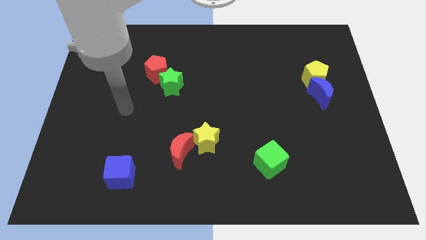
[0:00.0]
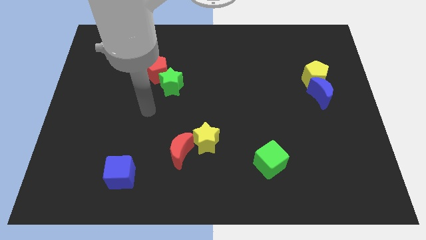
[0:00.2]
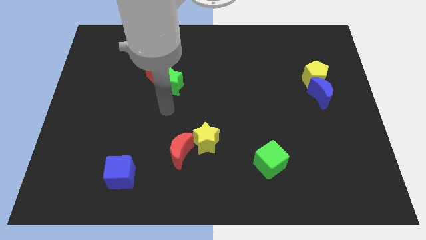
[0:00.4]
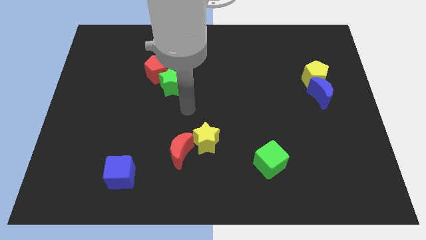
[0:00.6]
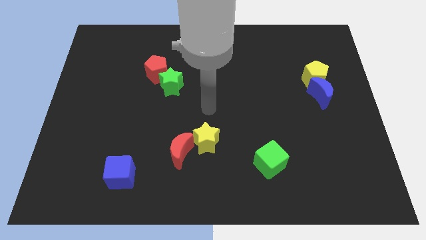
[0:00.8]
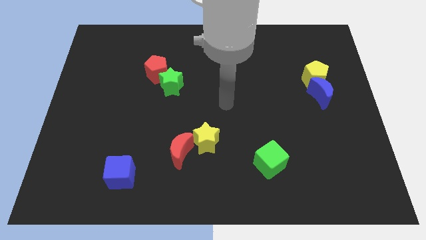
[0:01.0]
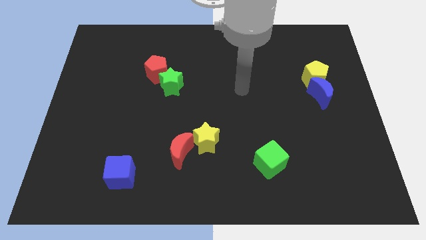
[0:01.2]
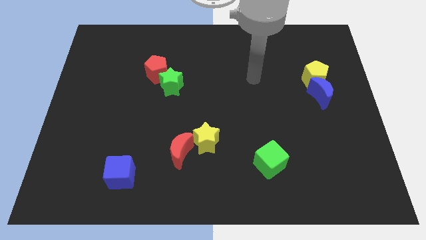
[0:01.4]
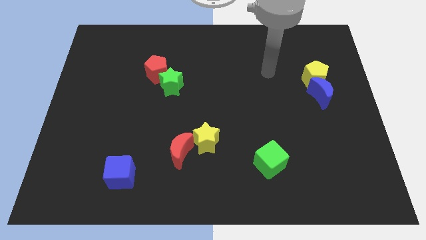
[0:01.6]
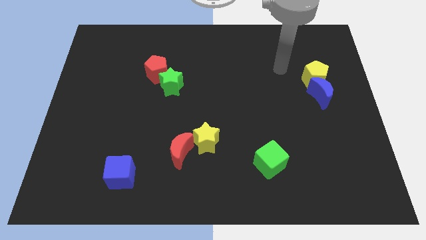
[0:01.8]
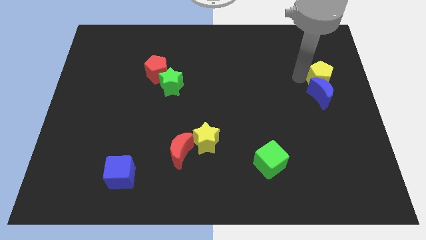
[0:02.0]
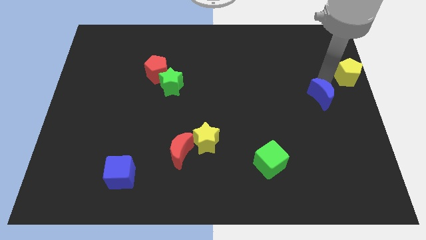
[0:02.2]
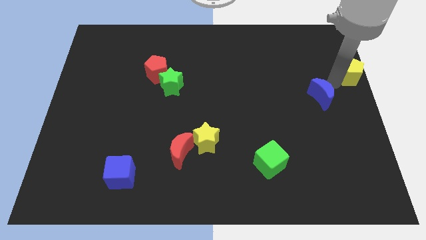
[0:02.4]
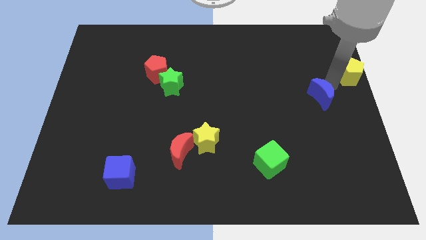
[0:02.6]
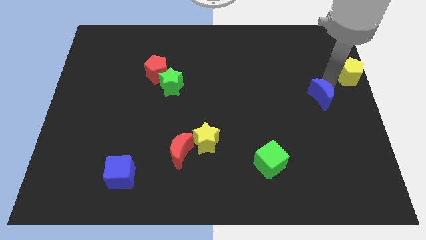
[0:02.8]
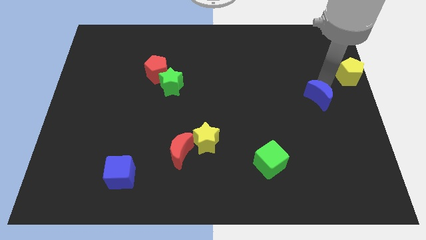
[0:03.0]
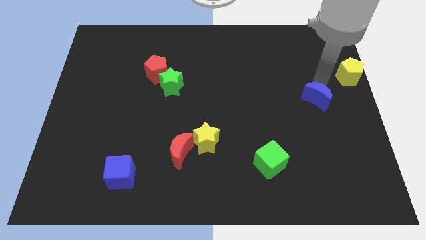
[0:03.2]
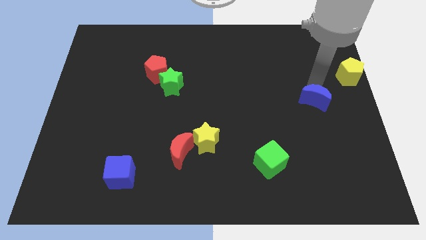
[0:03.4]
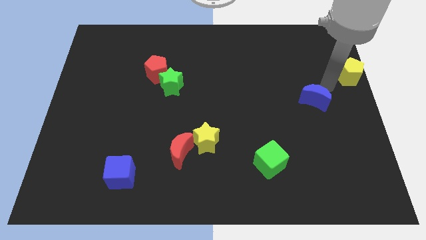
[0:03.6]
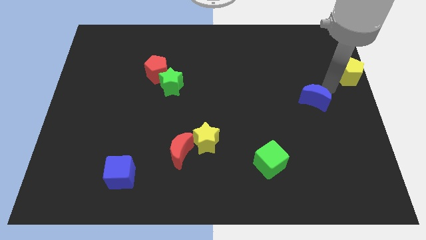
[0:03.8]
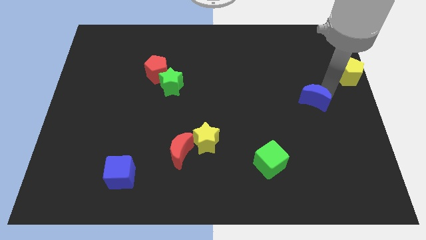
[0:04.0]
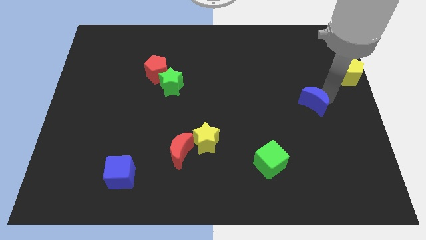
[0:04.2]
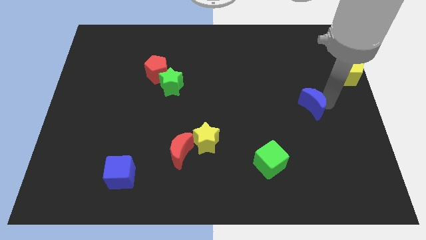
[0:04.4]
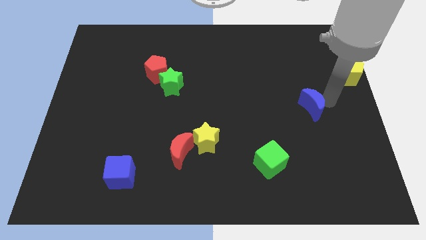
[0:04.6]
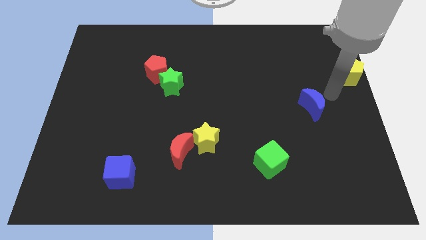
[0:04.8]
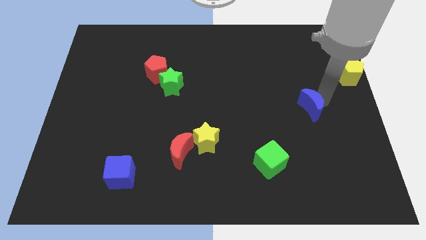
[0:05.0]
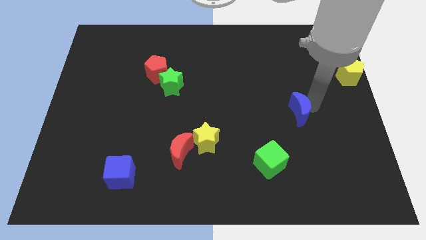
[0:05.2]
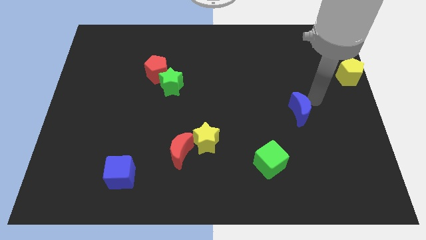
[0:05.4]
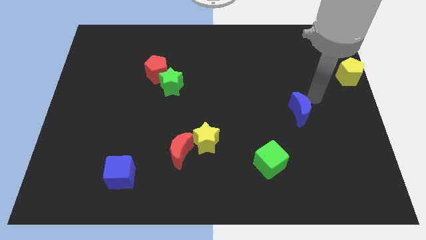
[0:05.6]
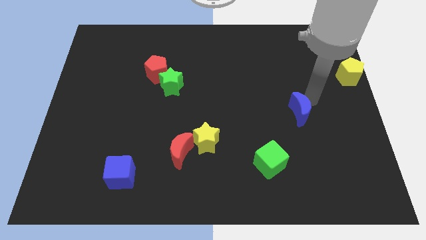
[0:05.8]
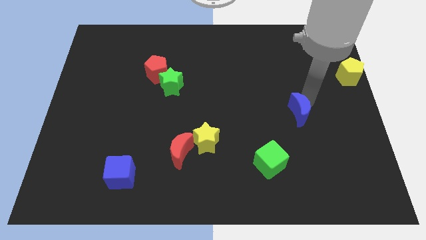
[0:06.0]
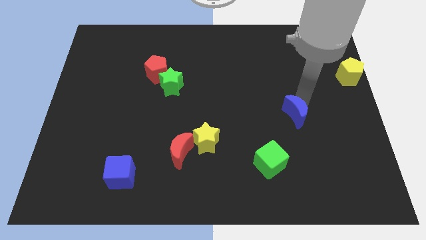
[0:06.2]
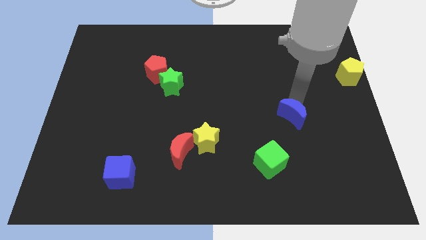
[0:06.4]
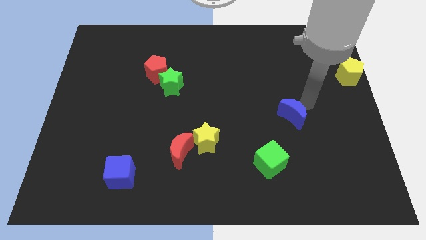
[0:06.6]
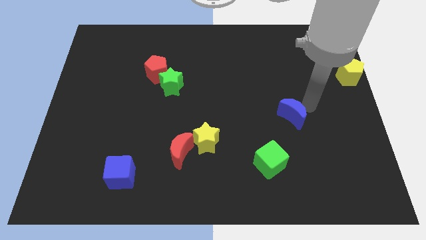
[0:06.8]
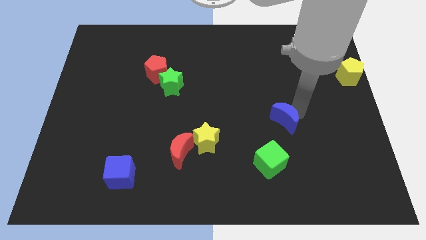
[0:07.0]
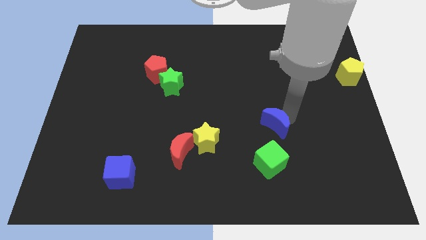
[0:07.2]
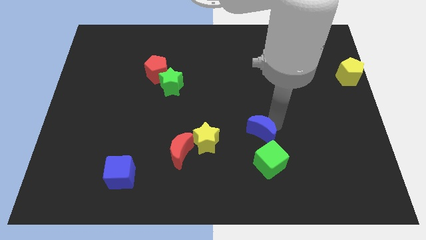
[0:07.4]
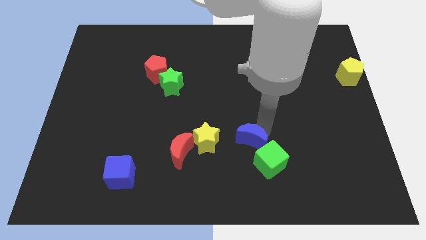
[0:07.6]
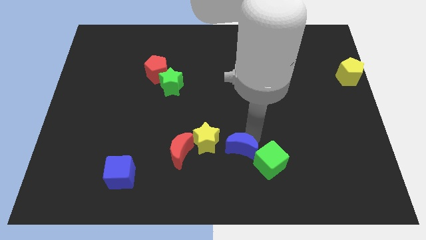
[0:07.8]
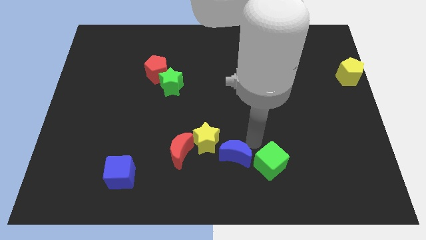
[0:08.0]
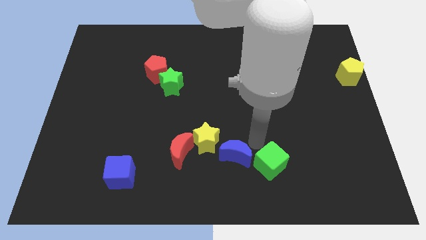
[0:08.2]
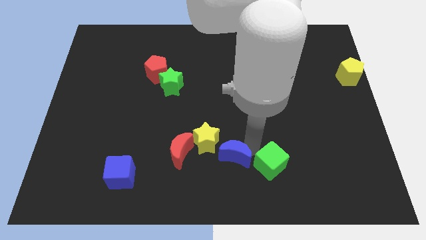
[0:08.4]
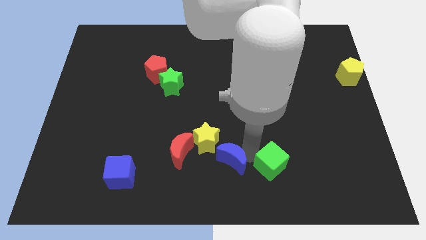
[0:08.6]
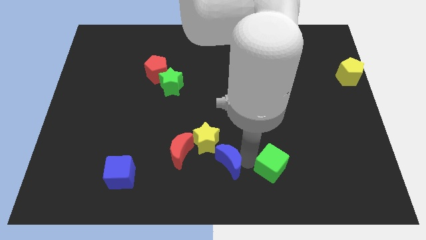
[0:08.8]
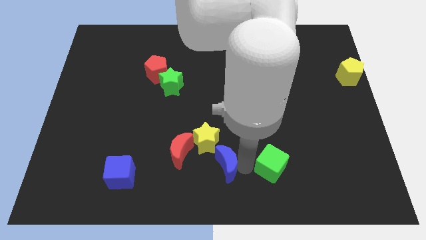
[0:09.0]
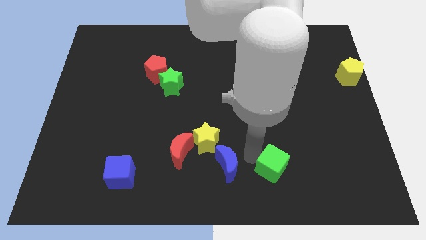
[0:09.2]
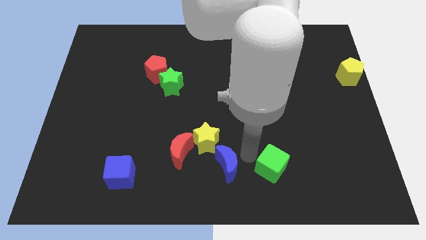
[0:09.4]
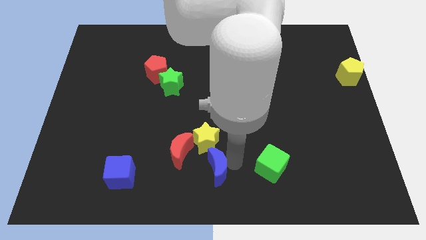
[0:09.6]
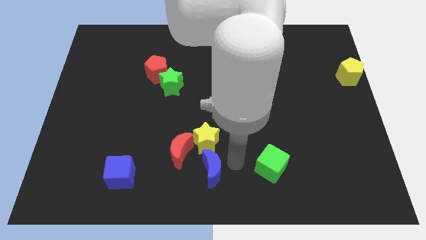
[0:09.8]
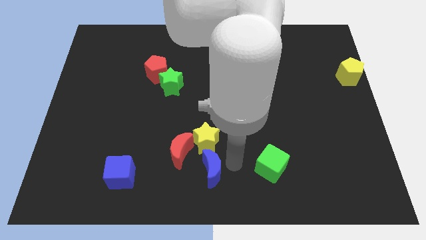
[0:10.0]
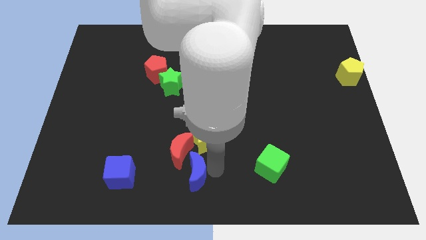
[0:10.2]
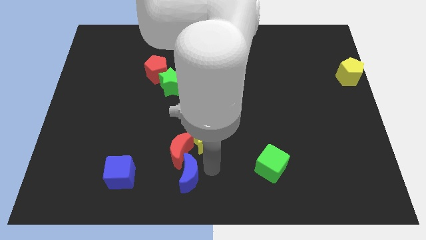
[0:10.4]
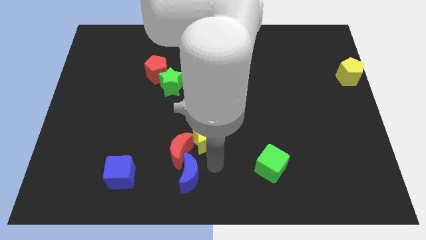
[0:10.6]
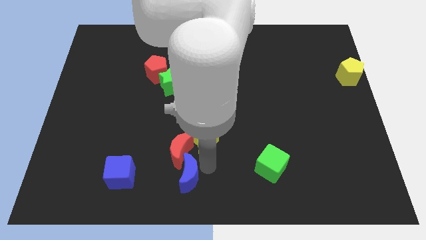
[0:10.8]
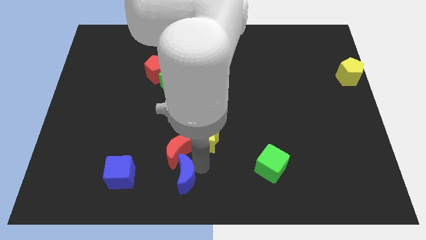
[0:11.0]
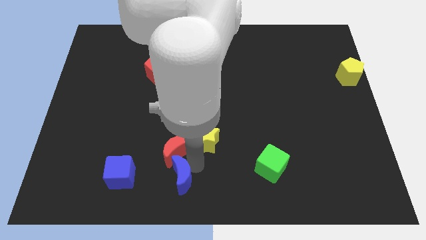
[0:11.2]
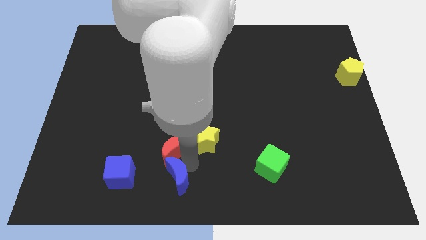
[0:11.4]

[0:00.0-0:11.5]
slide the blue moon diagonally down and to the left of the red moon

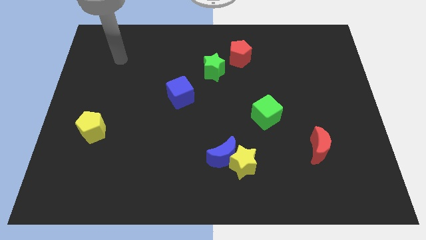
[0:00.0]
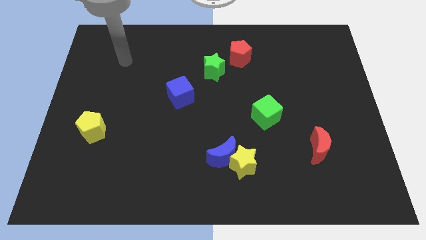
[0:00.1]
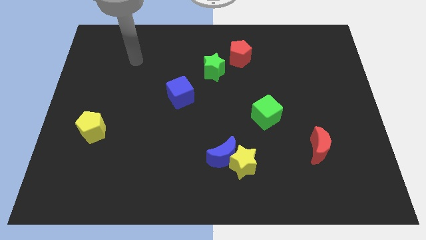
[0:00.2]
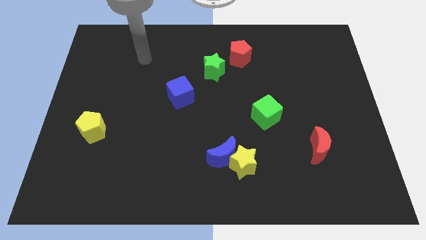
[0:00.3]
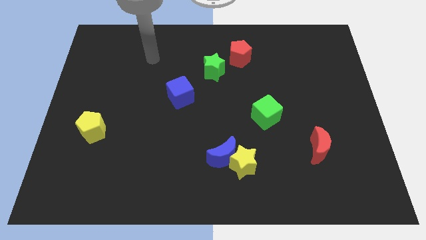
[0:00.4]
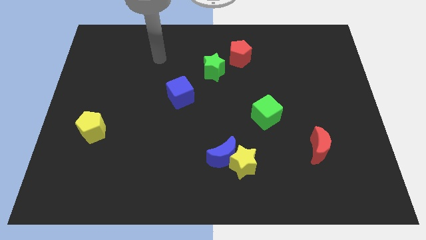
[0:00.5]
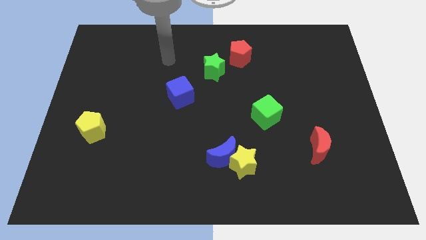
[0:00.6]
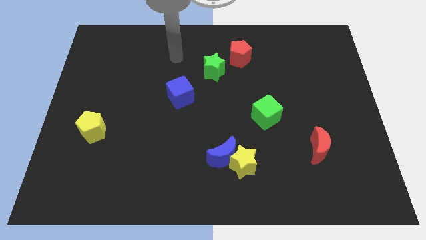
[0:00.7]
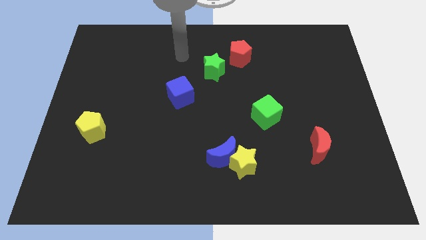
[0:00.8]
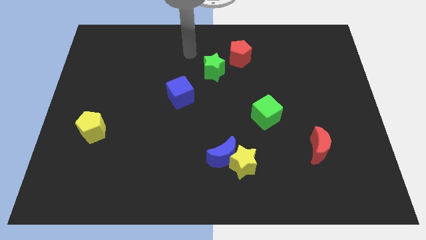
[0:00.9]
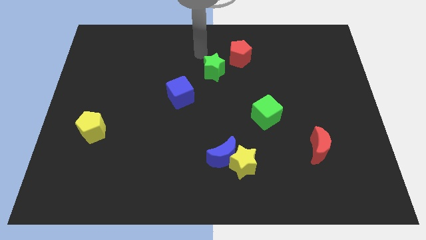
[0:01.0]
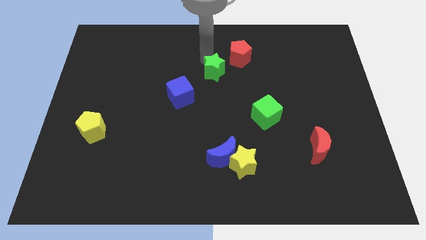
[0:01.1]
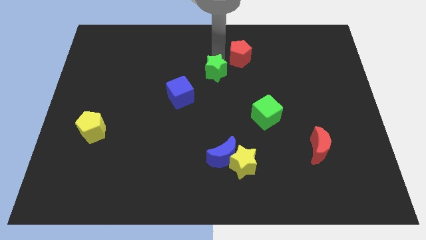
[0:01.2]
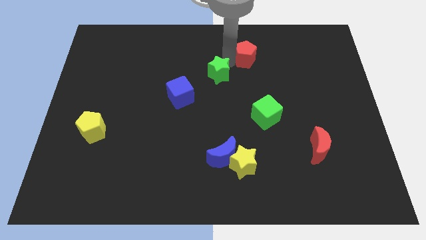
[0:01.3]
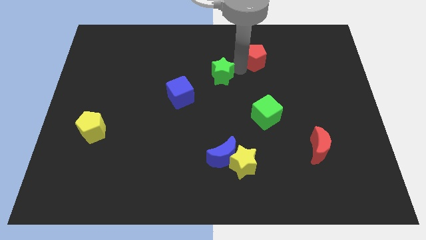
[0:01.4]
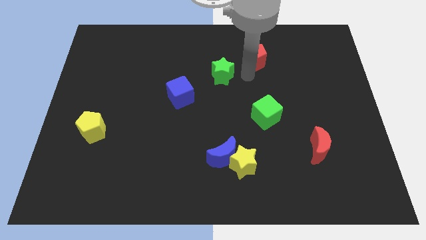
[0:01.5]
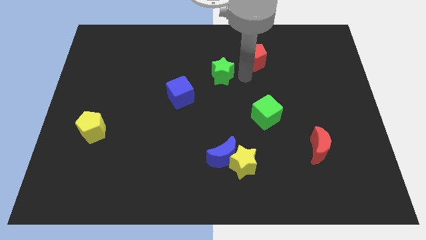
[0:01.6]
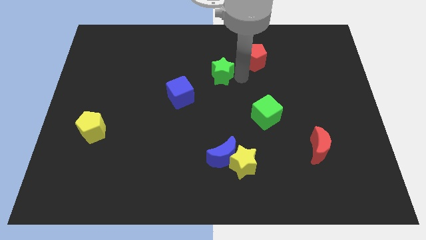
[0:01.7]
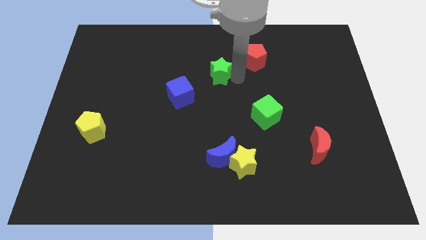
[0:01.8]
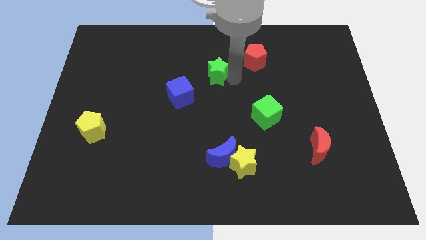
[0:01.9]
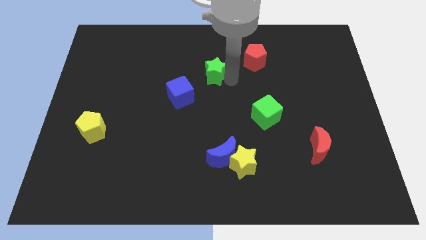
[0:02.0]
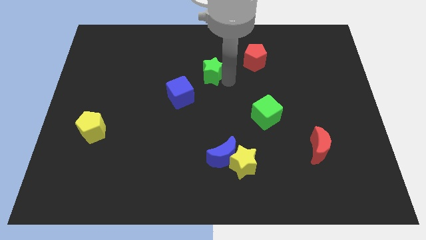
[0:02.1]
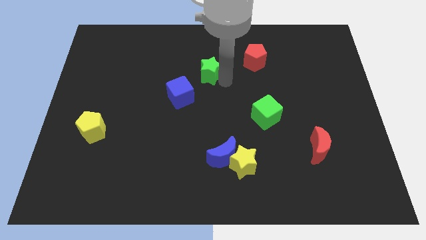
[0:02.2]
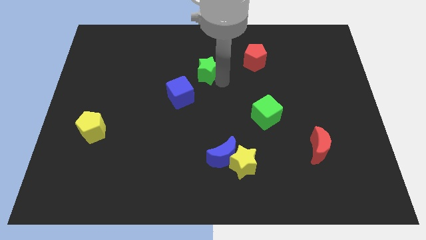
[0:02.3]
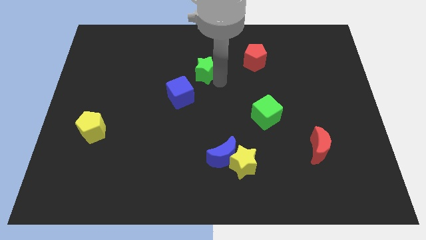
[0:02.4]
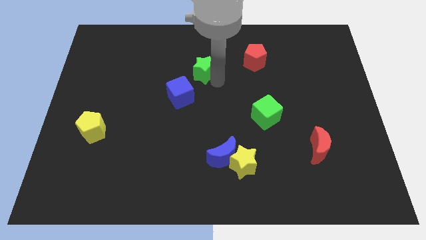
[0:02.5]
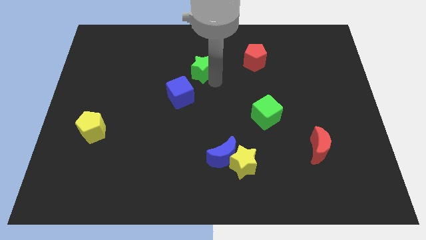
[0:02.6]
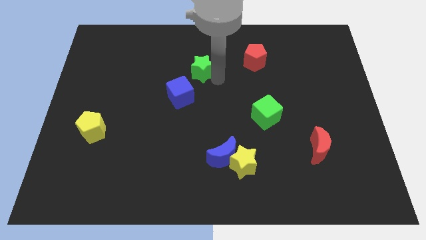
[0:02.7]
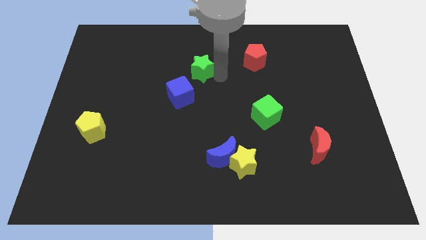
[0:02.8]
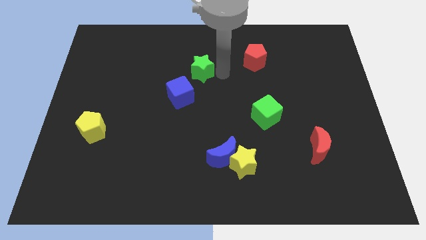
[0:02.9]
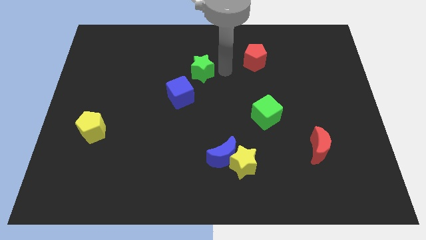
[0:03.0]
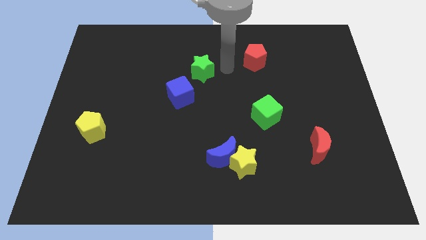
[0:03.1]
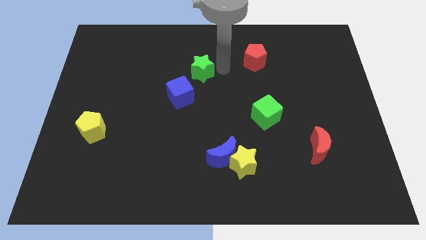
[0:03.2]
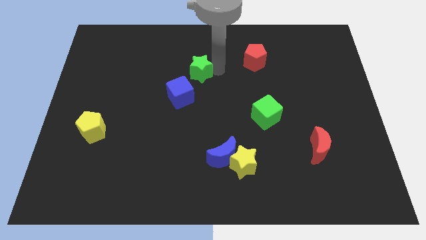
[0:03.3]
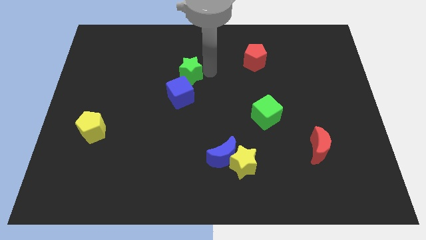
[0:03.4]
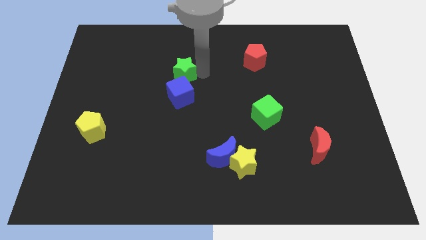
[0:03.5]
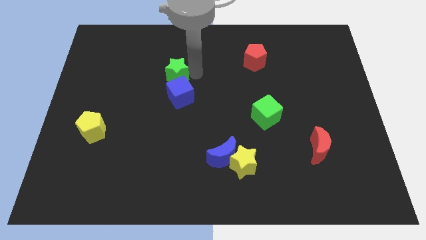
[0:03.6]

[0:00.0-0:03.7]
slide the green star to the top left side of the blue cube
